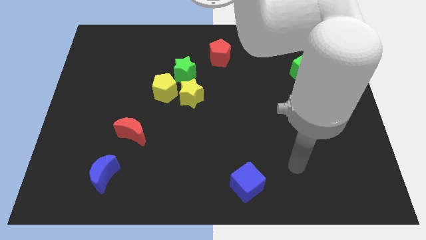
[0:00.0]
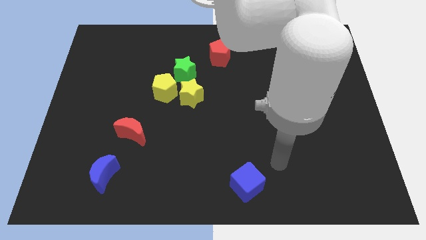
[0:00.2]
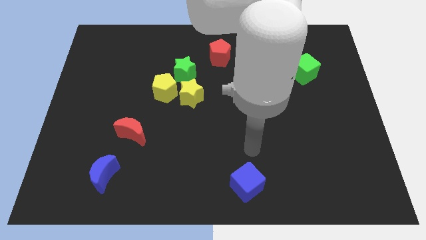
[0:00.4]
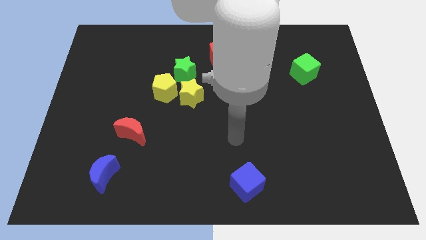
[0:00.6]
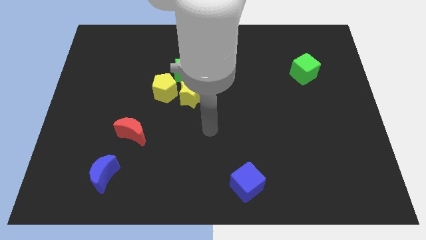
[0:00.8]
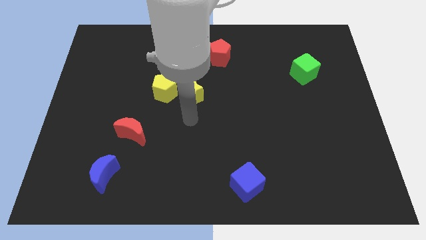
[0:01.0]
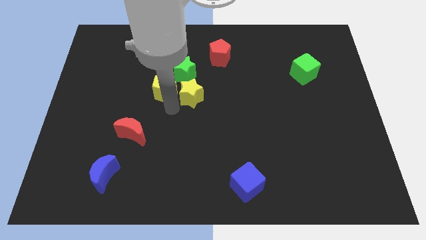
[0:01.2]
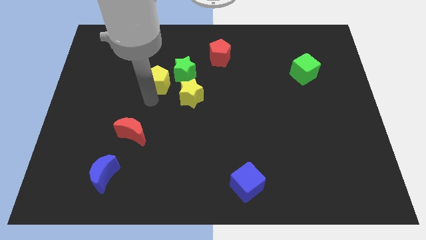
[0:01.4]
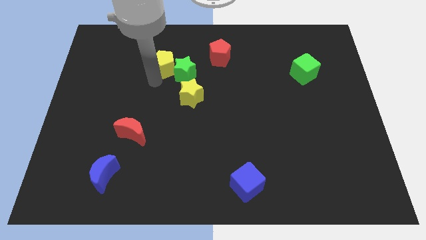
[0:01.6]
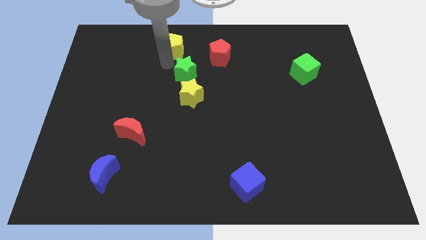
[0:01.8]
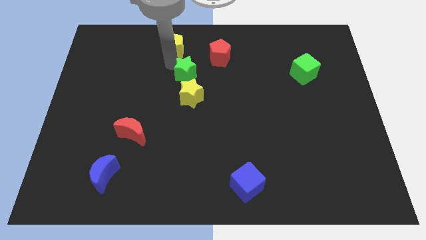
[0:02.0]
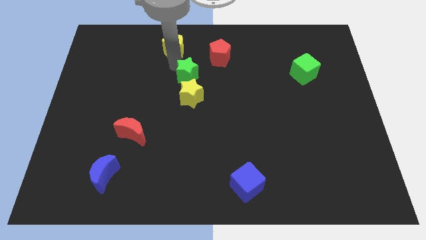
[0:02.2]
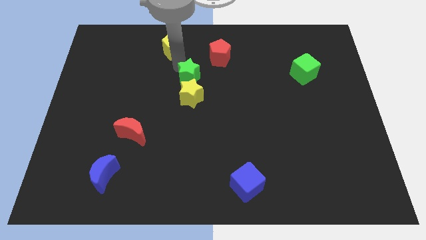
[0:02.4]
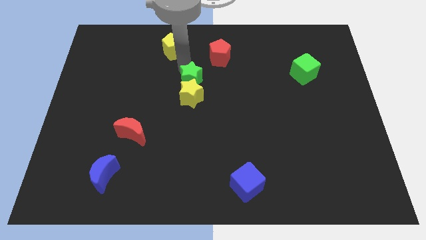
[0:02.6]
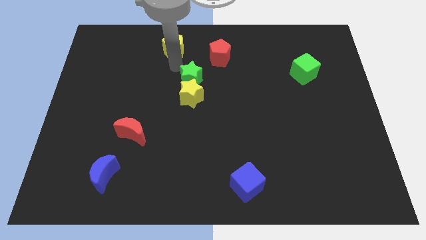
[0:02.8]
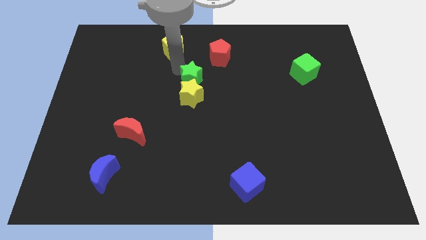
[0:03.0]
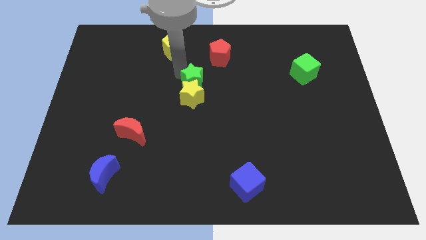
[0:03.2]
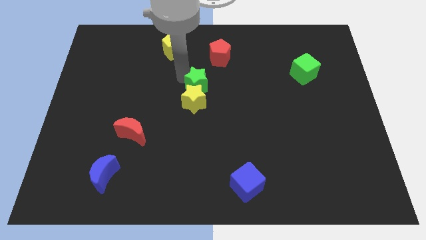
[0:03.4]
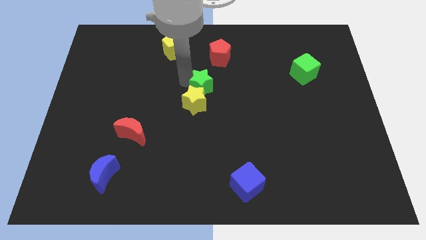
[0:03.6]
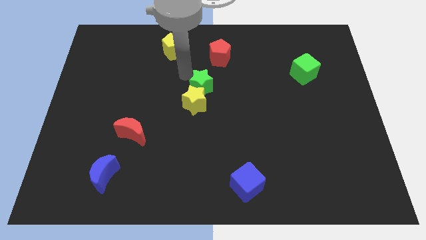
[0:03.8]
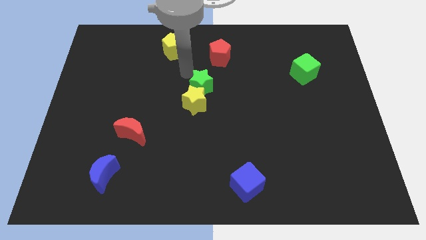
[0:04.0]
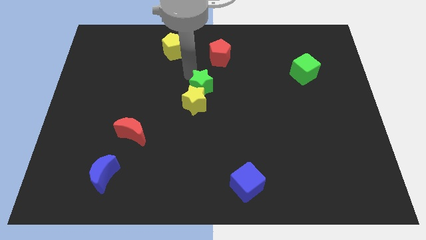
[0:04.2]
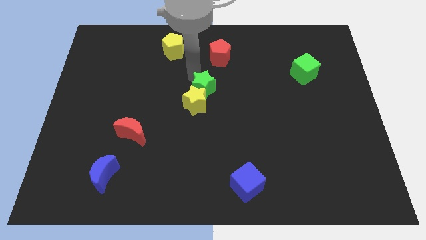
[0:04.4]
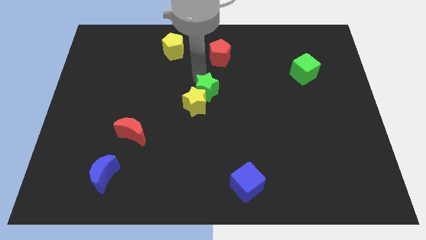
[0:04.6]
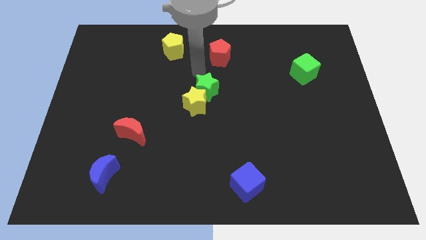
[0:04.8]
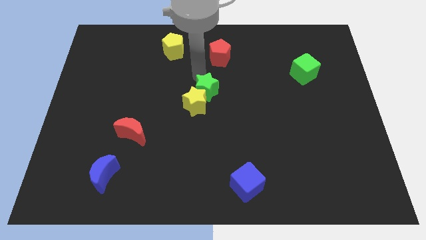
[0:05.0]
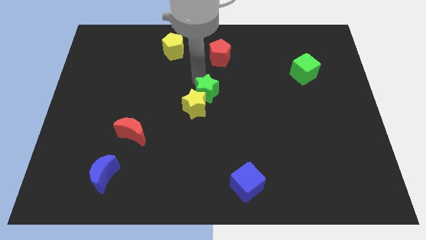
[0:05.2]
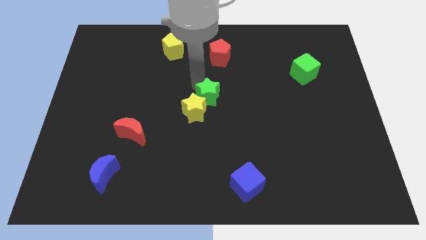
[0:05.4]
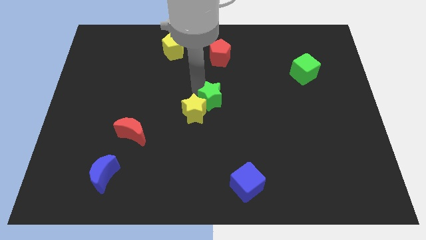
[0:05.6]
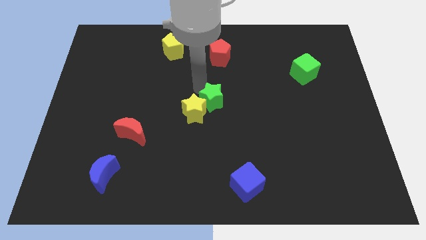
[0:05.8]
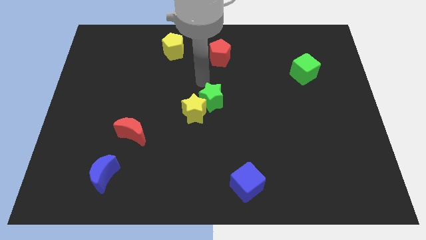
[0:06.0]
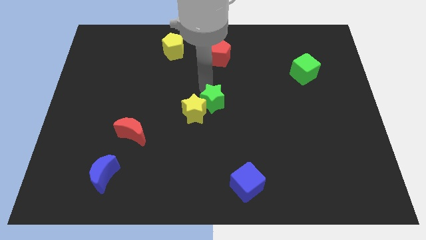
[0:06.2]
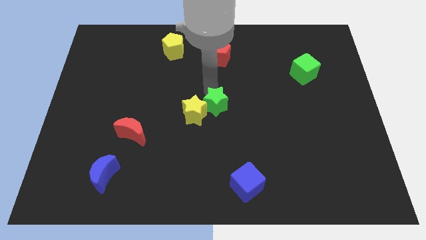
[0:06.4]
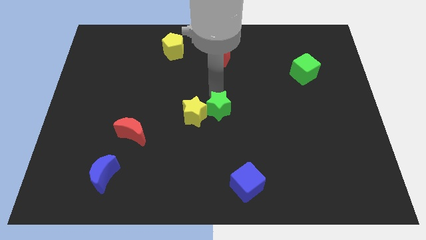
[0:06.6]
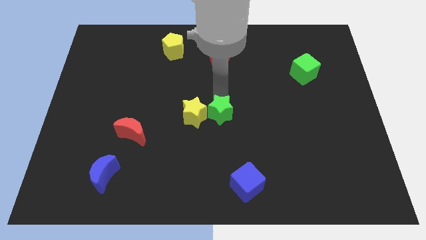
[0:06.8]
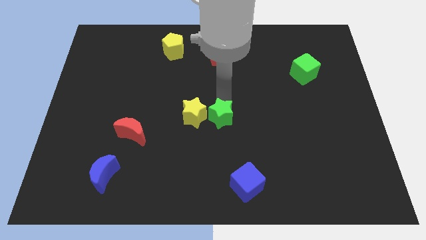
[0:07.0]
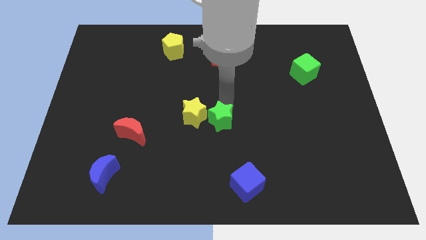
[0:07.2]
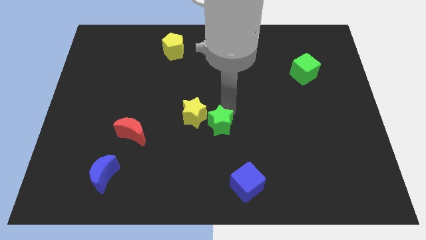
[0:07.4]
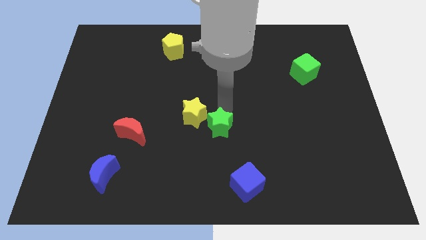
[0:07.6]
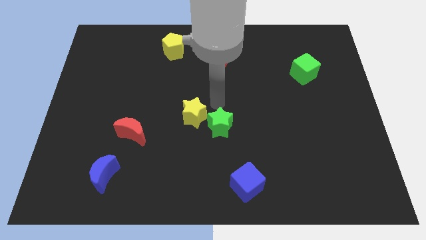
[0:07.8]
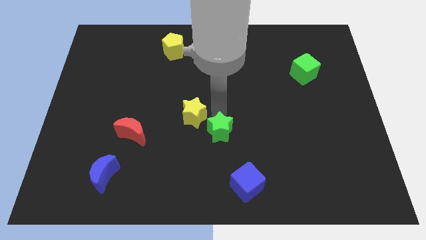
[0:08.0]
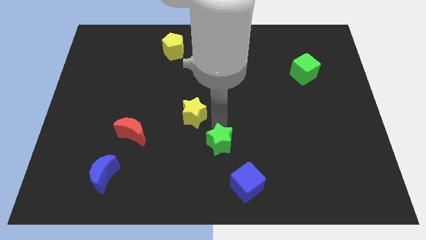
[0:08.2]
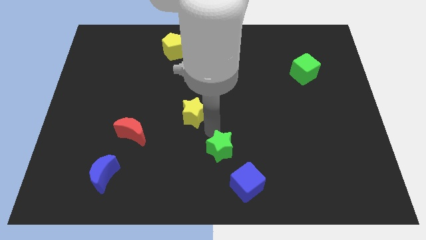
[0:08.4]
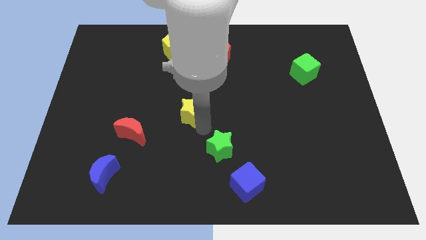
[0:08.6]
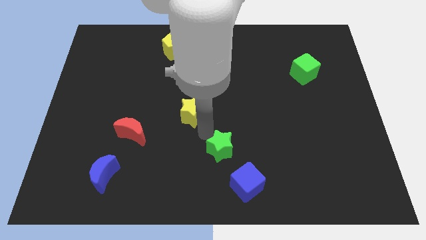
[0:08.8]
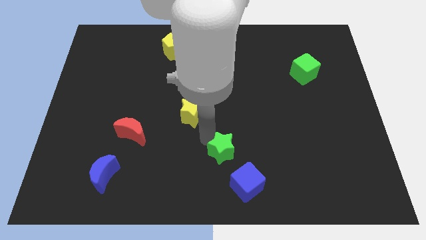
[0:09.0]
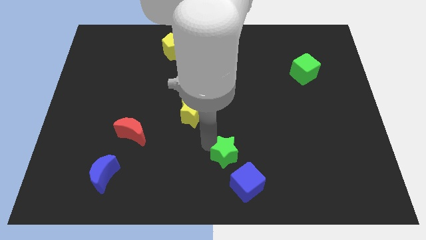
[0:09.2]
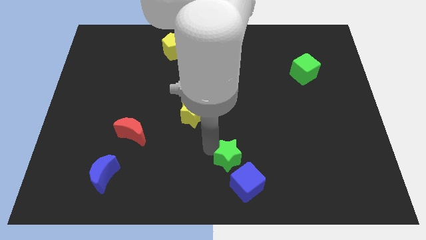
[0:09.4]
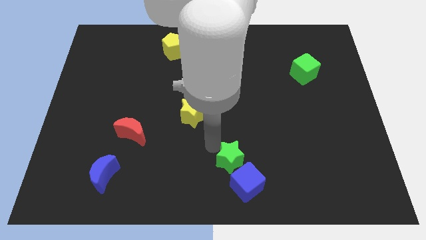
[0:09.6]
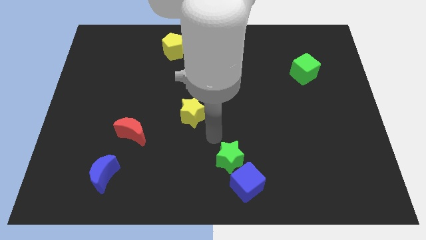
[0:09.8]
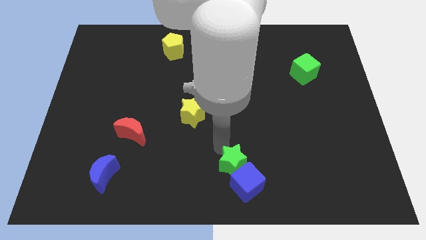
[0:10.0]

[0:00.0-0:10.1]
put the green star towards the blue cube

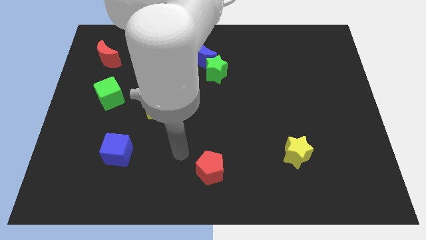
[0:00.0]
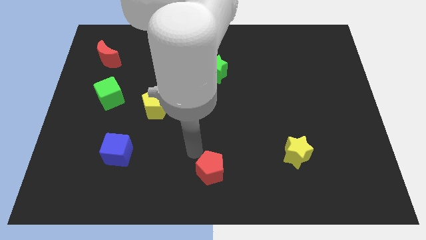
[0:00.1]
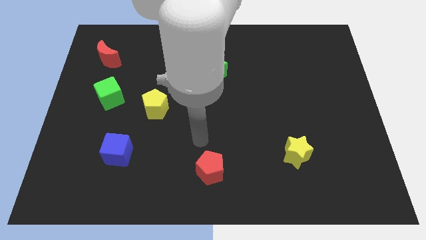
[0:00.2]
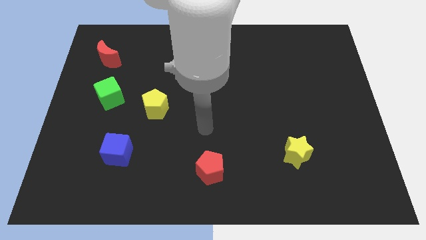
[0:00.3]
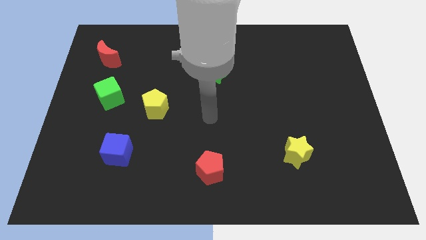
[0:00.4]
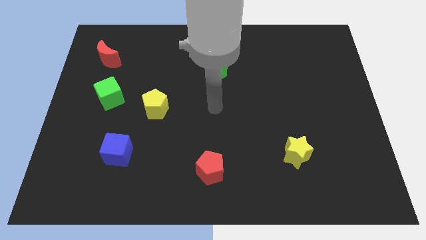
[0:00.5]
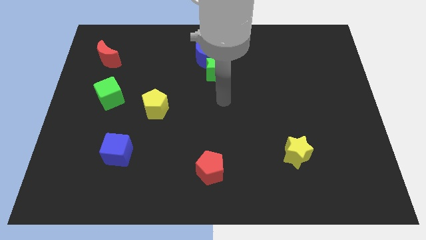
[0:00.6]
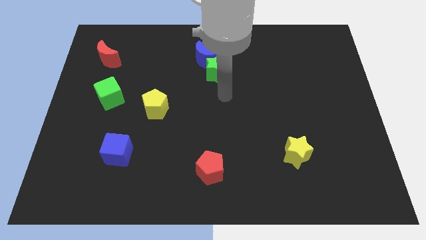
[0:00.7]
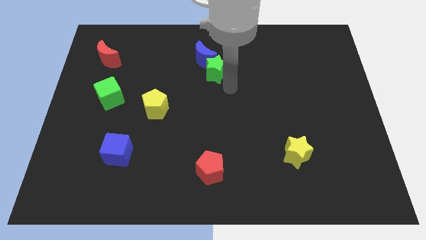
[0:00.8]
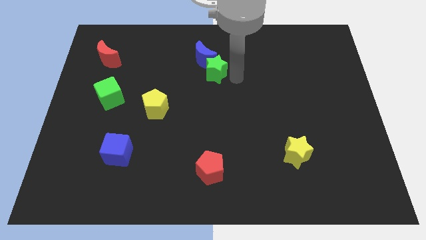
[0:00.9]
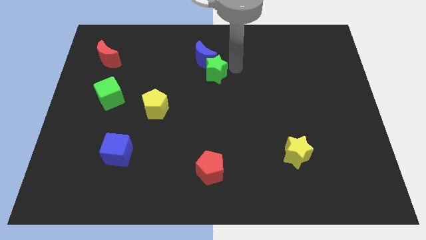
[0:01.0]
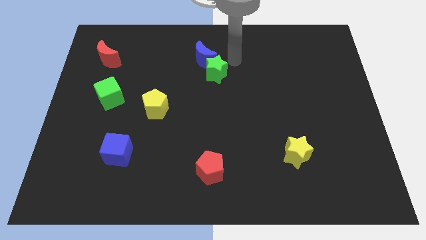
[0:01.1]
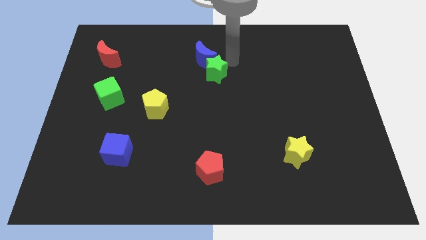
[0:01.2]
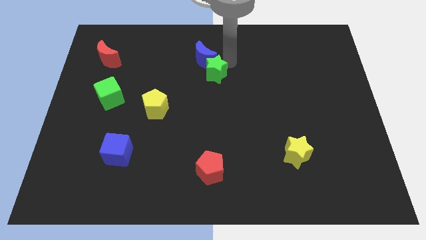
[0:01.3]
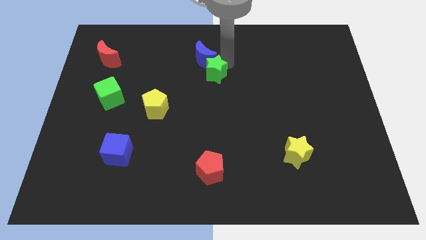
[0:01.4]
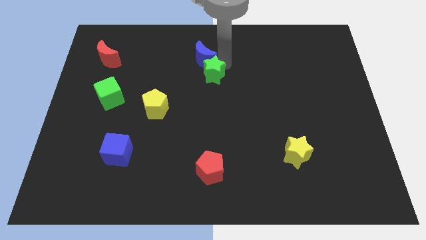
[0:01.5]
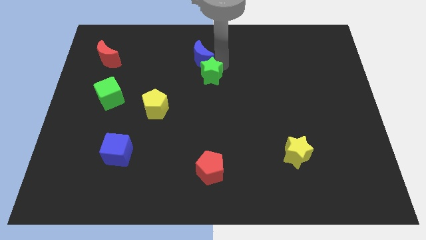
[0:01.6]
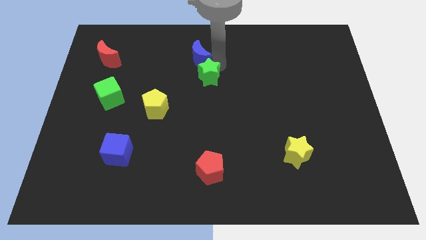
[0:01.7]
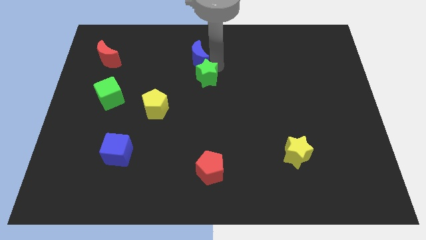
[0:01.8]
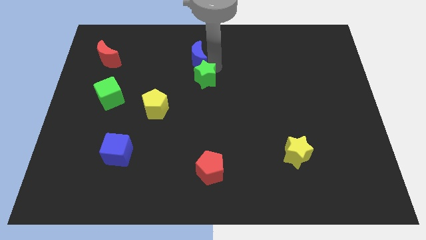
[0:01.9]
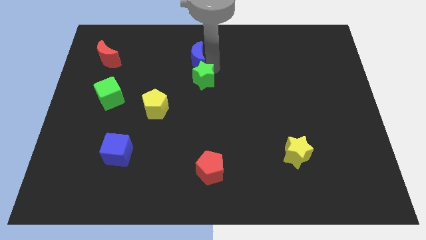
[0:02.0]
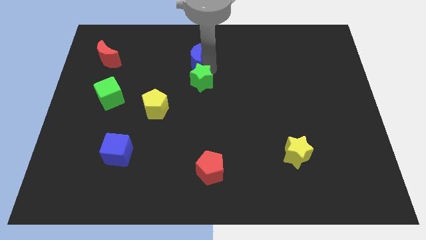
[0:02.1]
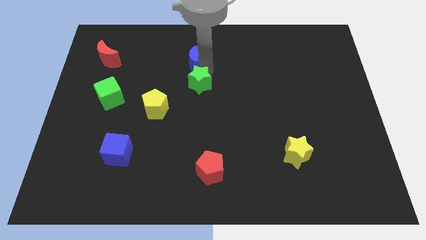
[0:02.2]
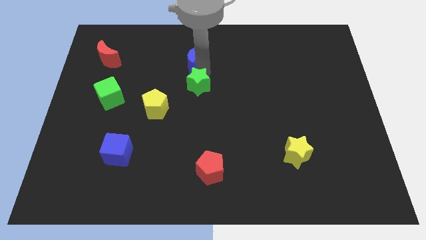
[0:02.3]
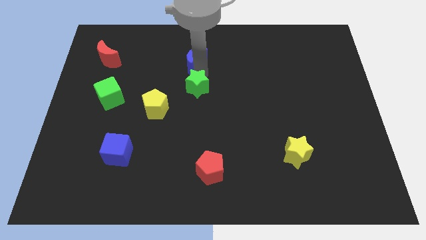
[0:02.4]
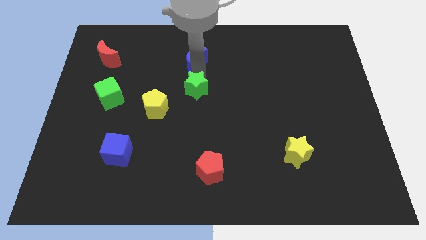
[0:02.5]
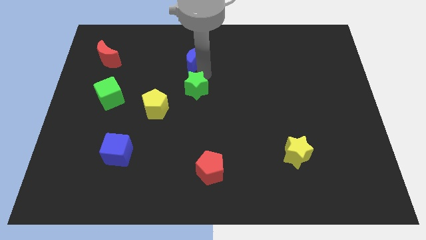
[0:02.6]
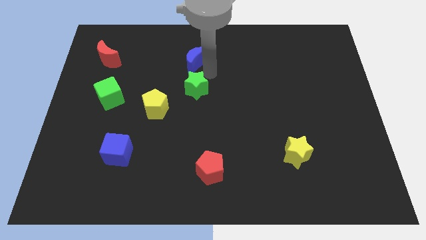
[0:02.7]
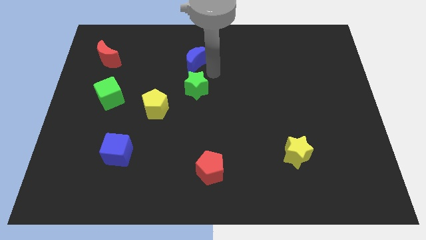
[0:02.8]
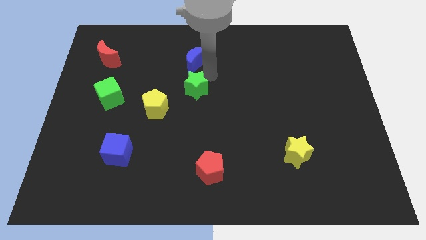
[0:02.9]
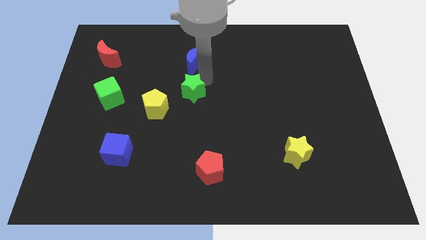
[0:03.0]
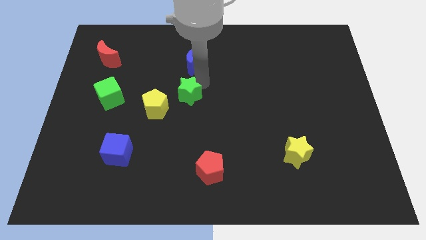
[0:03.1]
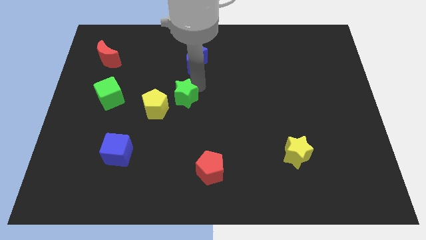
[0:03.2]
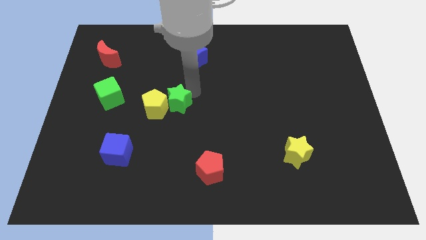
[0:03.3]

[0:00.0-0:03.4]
put the green star towards the yellow pentagon
